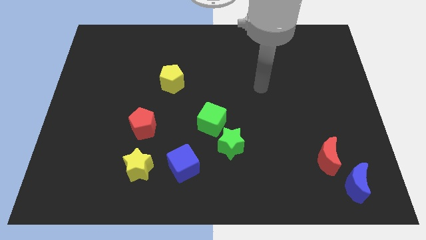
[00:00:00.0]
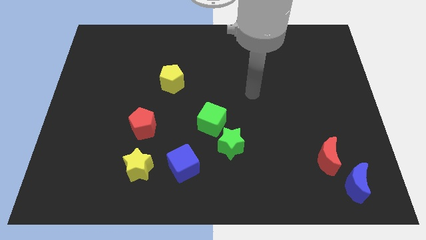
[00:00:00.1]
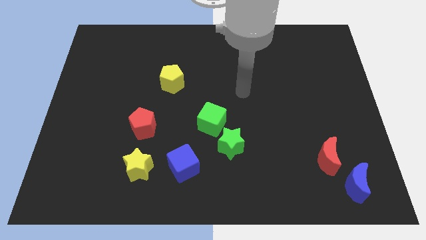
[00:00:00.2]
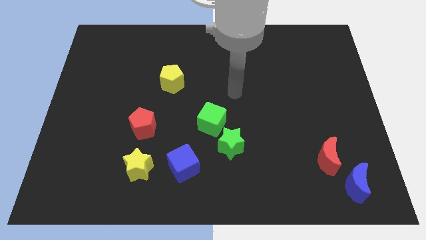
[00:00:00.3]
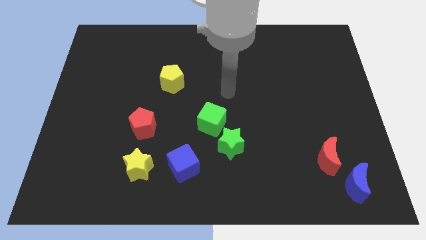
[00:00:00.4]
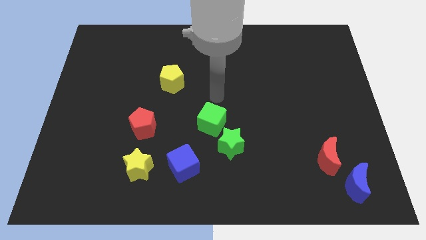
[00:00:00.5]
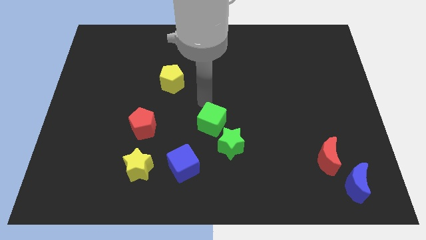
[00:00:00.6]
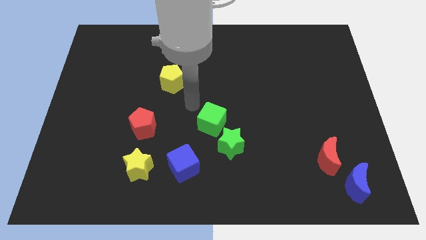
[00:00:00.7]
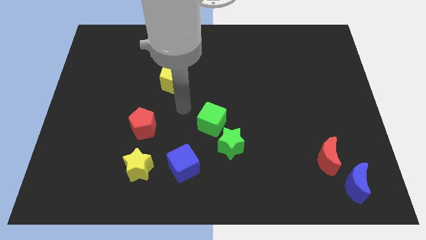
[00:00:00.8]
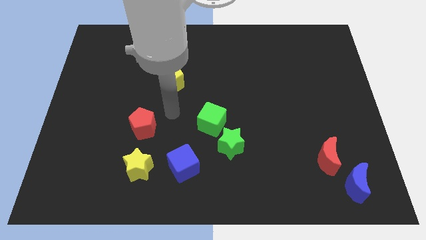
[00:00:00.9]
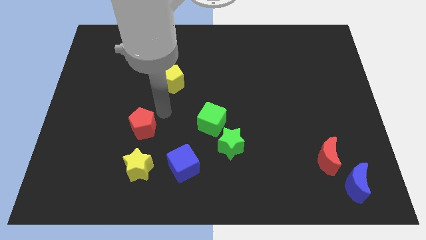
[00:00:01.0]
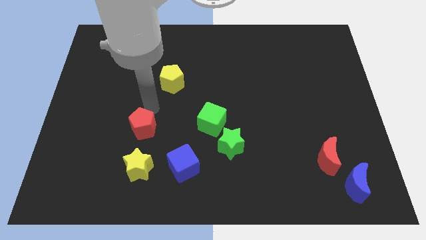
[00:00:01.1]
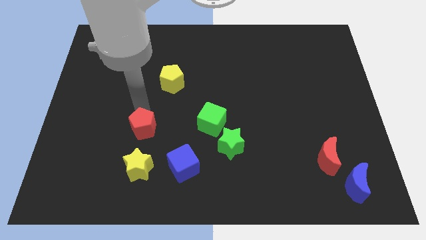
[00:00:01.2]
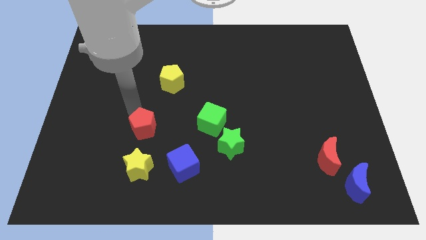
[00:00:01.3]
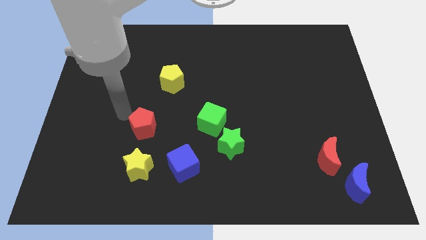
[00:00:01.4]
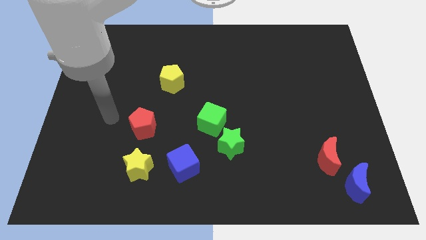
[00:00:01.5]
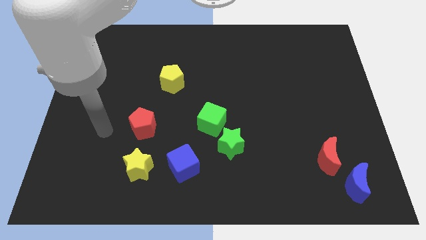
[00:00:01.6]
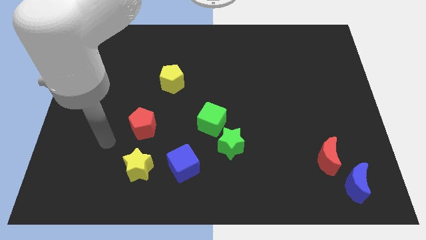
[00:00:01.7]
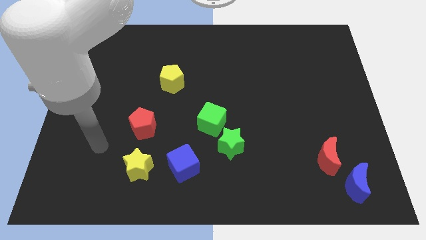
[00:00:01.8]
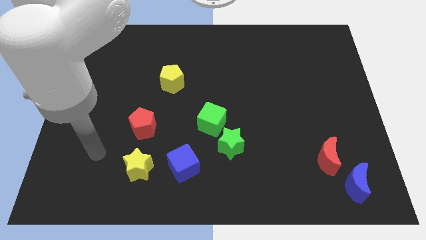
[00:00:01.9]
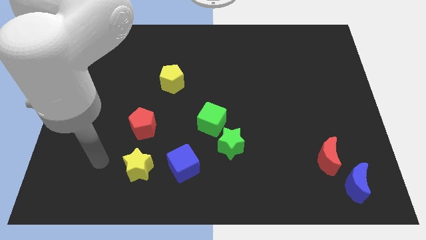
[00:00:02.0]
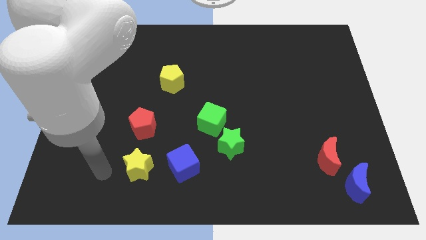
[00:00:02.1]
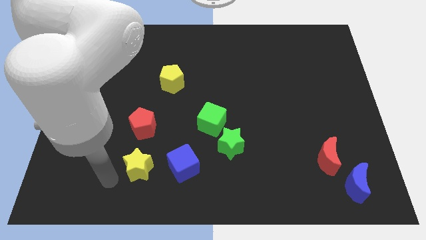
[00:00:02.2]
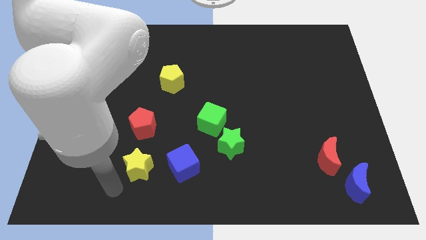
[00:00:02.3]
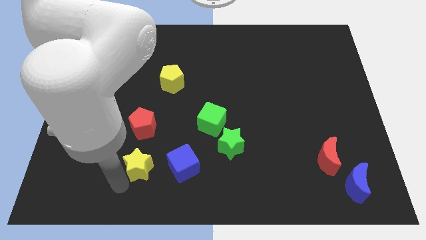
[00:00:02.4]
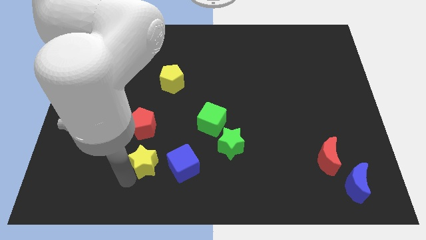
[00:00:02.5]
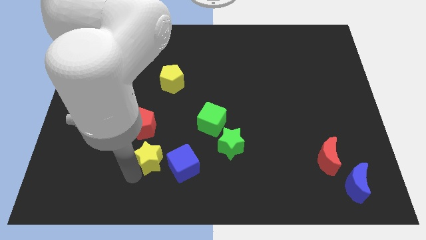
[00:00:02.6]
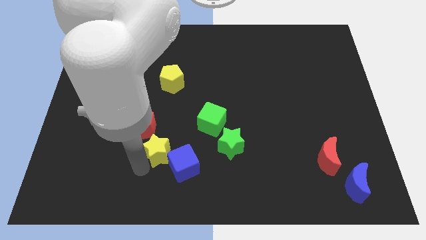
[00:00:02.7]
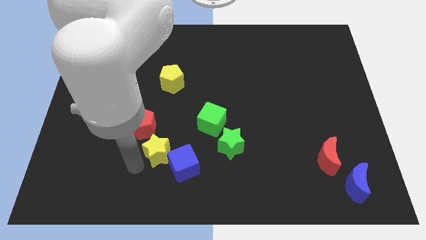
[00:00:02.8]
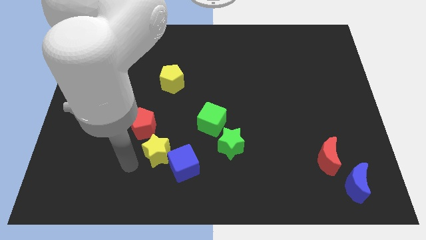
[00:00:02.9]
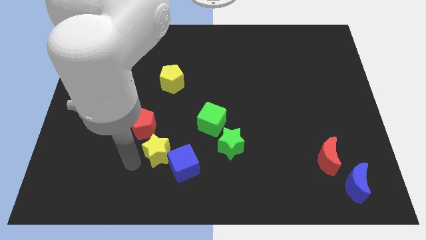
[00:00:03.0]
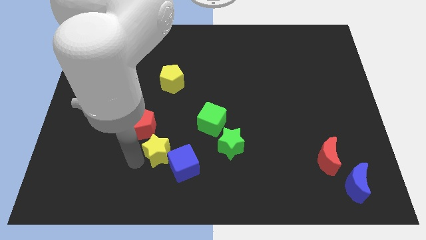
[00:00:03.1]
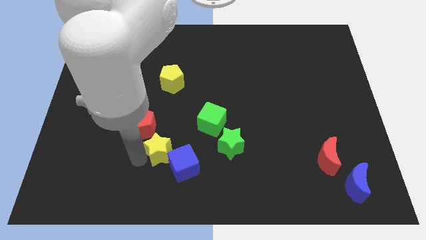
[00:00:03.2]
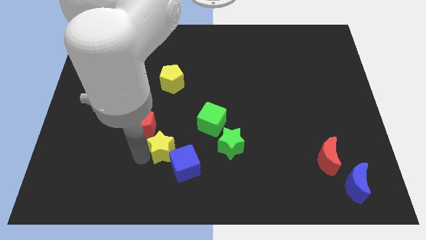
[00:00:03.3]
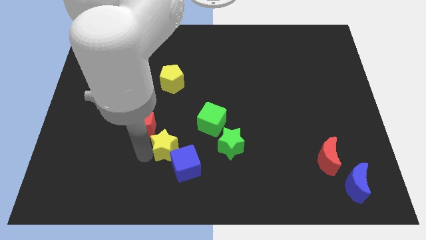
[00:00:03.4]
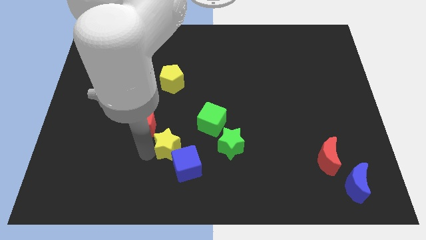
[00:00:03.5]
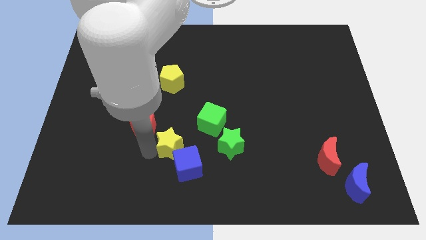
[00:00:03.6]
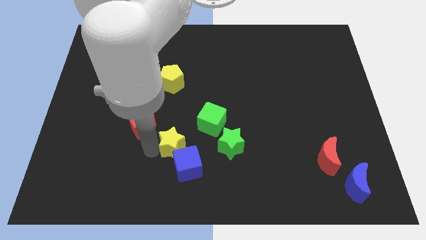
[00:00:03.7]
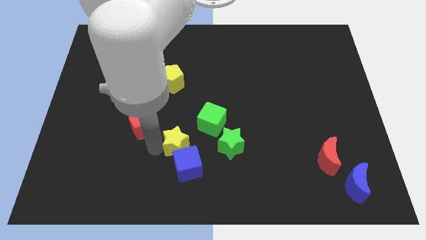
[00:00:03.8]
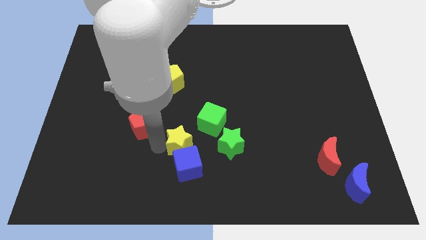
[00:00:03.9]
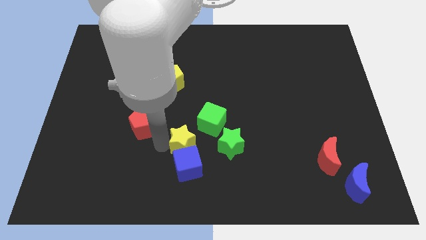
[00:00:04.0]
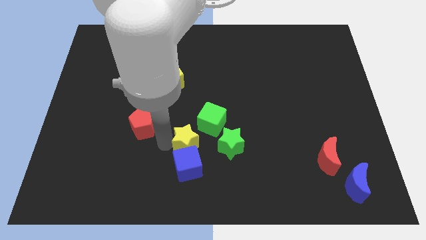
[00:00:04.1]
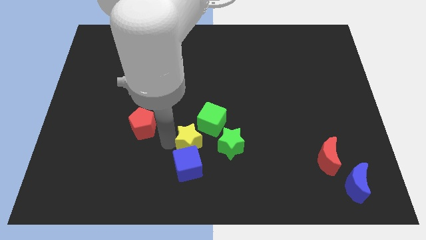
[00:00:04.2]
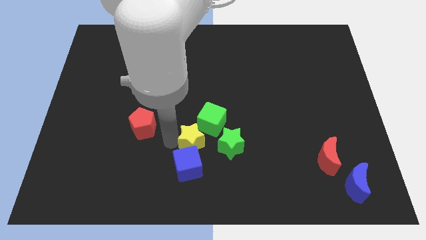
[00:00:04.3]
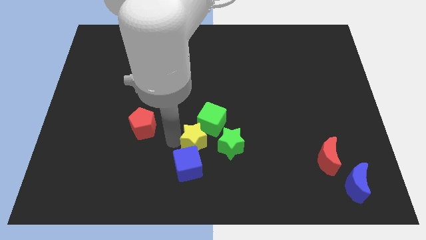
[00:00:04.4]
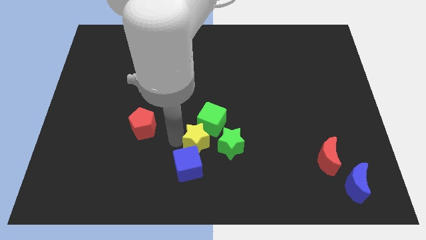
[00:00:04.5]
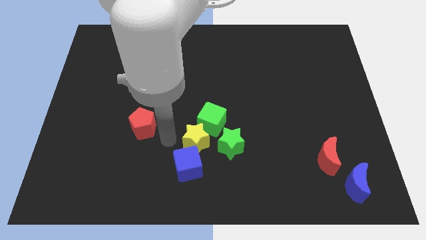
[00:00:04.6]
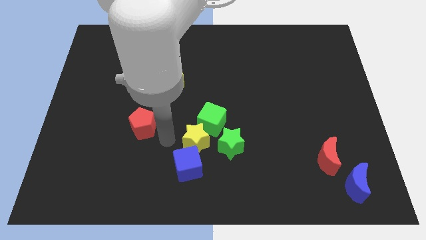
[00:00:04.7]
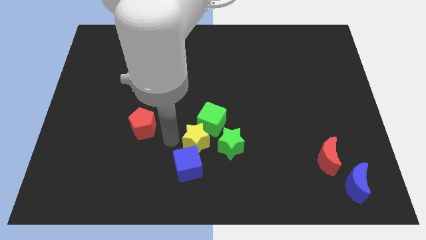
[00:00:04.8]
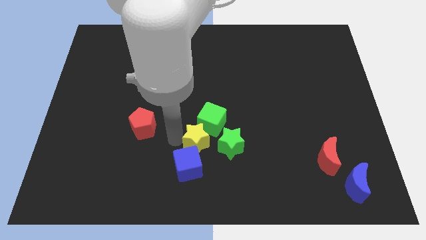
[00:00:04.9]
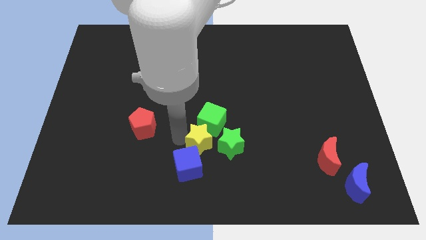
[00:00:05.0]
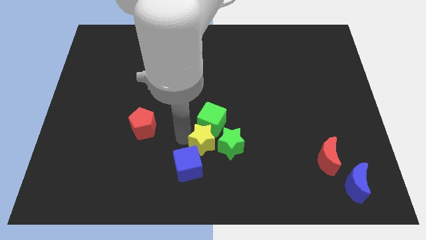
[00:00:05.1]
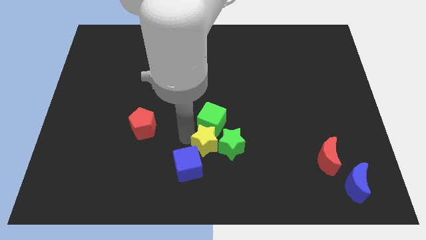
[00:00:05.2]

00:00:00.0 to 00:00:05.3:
slide the yellow star next to the green star

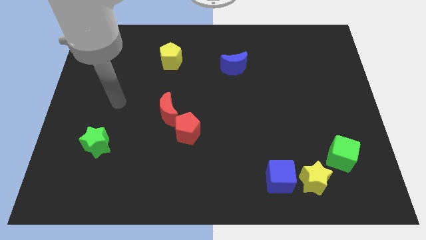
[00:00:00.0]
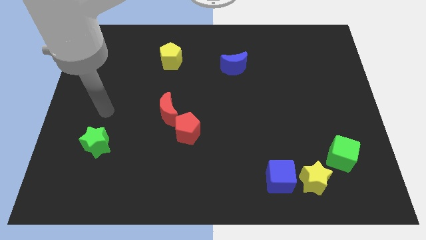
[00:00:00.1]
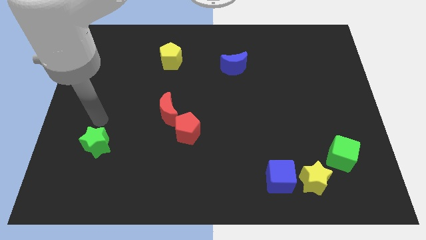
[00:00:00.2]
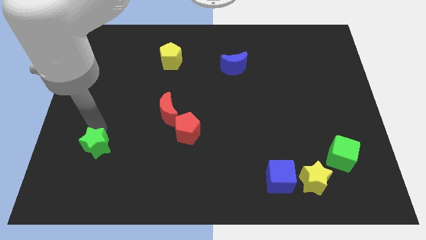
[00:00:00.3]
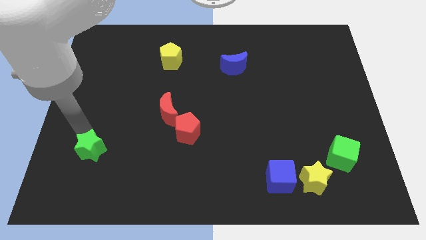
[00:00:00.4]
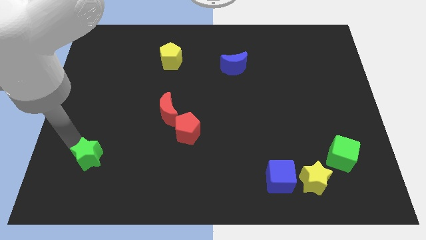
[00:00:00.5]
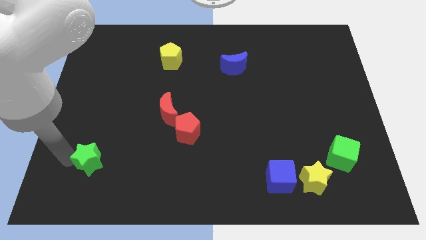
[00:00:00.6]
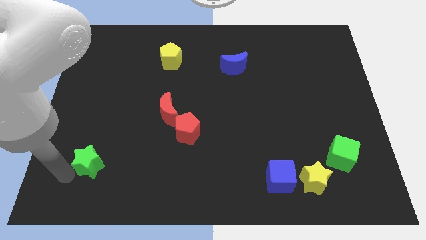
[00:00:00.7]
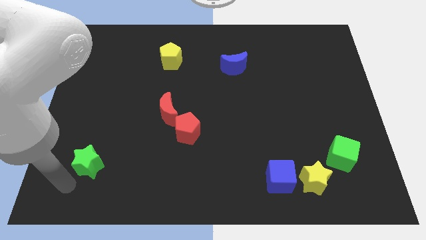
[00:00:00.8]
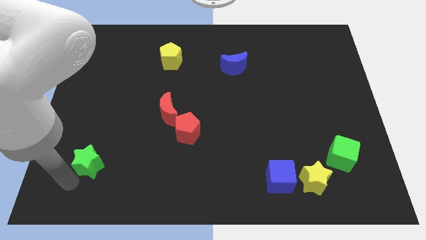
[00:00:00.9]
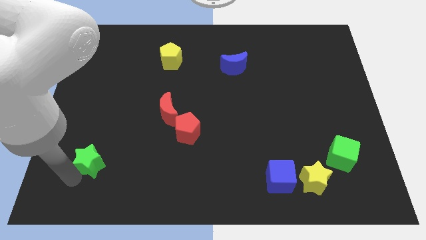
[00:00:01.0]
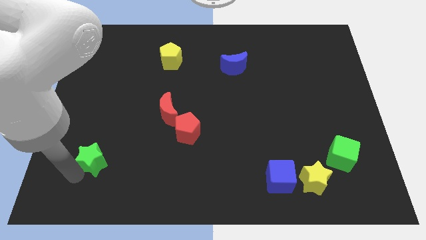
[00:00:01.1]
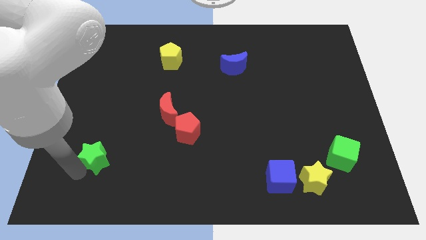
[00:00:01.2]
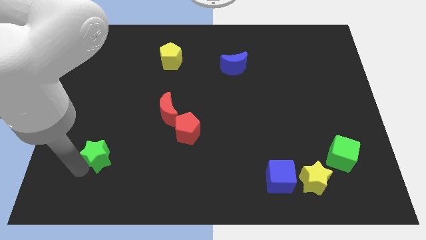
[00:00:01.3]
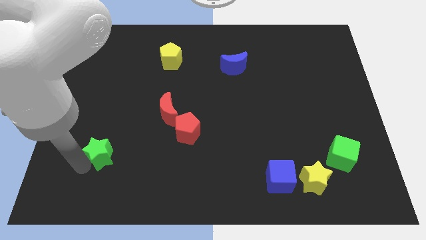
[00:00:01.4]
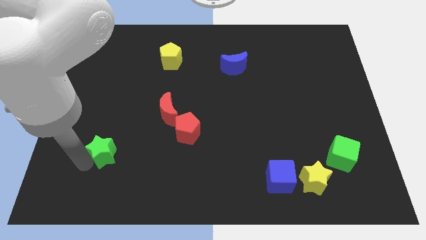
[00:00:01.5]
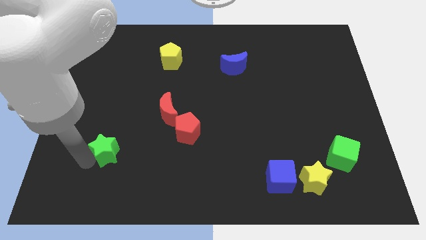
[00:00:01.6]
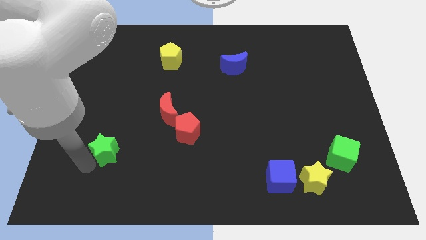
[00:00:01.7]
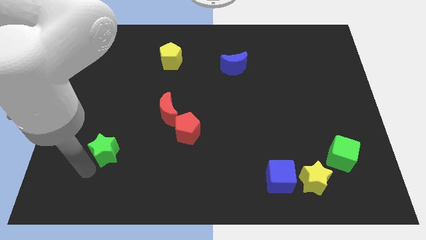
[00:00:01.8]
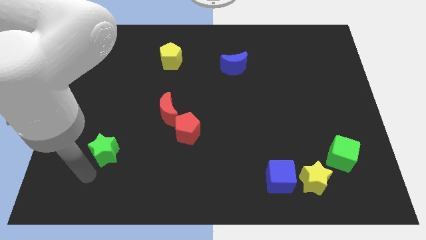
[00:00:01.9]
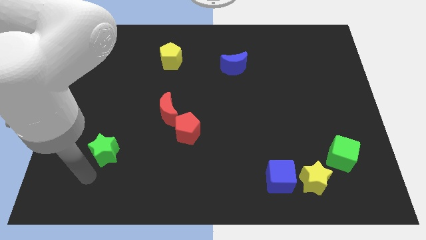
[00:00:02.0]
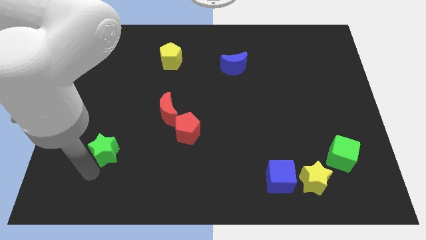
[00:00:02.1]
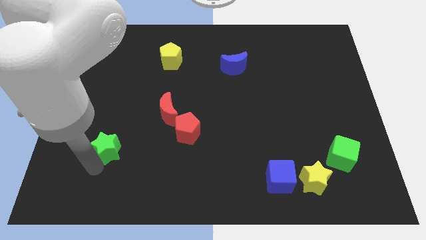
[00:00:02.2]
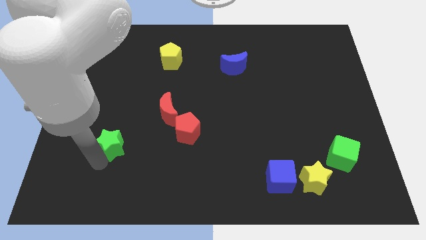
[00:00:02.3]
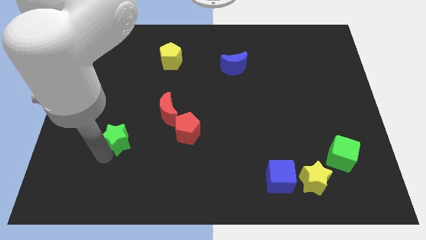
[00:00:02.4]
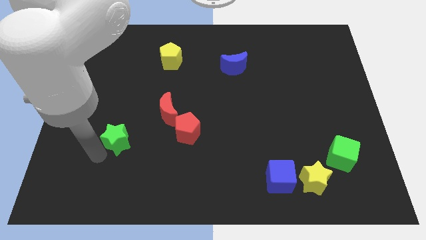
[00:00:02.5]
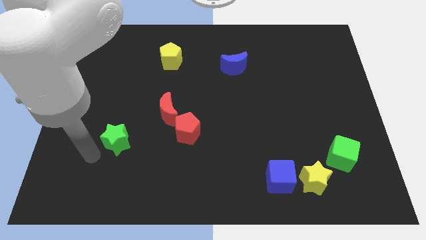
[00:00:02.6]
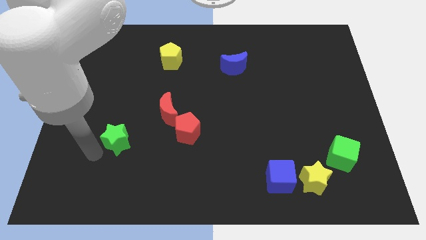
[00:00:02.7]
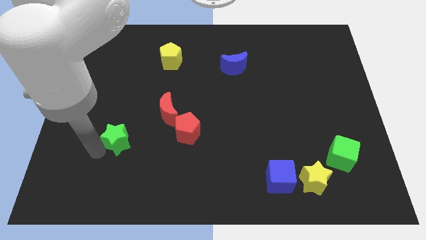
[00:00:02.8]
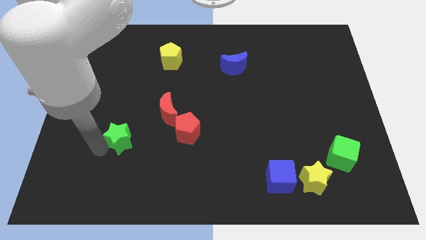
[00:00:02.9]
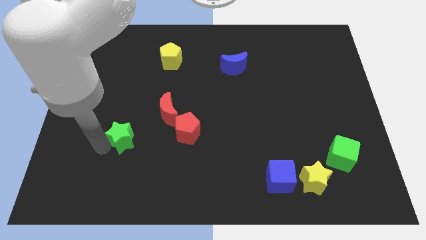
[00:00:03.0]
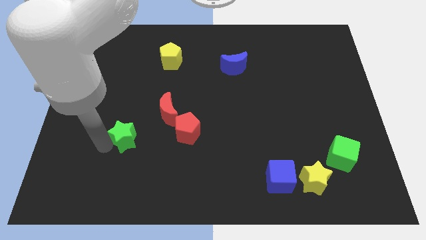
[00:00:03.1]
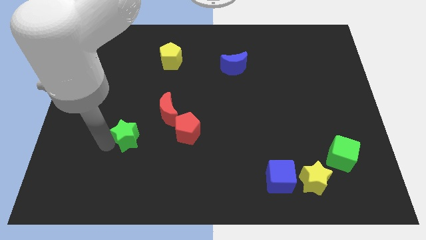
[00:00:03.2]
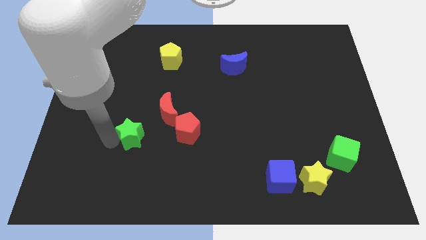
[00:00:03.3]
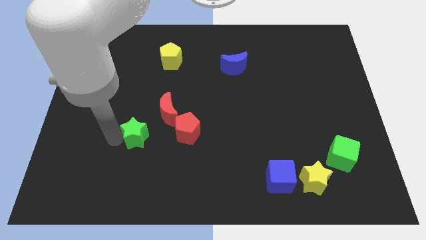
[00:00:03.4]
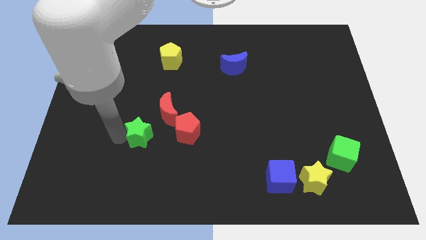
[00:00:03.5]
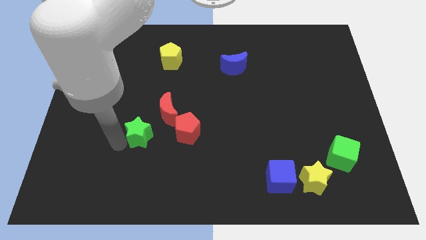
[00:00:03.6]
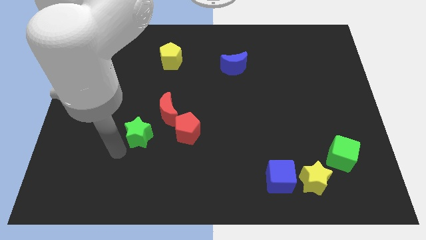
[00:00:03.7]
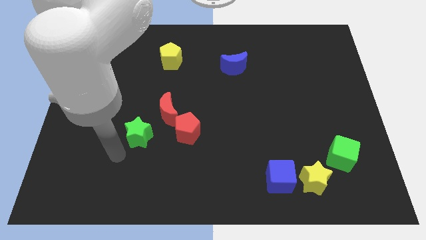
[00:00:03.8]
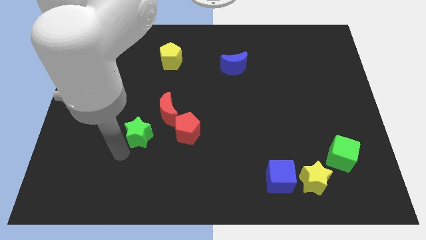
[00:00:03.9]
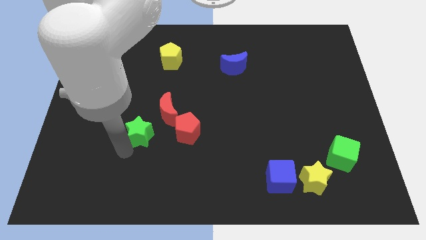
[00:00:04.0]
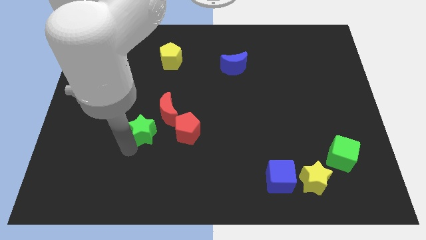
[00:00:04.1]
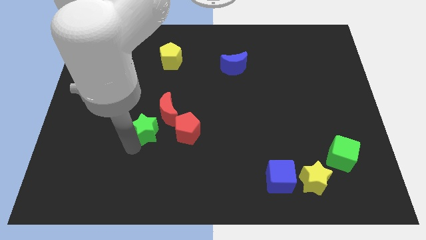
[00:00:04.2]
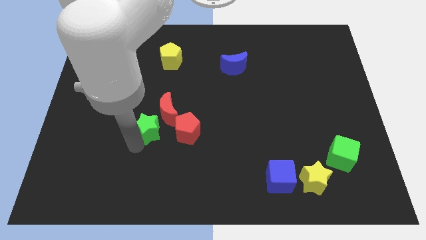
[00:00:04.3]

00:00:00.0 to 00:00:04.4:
push the green star towards the red moon
